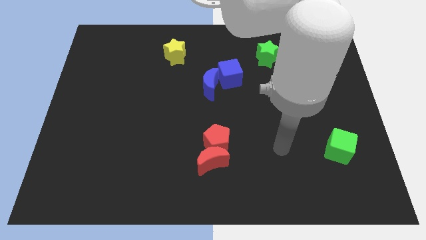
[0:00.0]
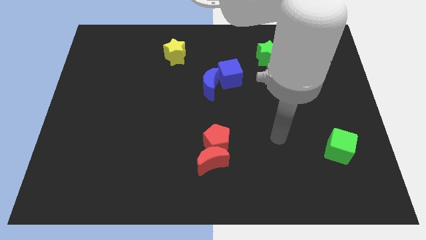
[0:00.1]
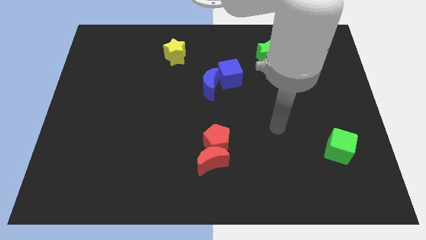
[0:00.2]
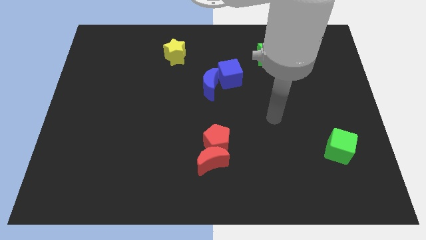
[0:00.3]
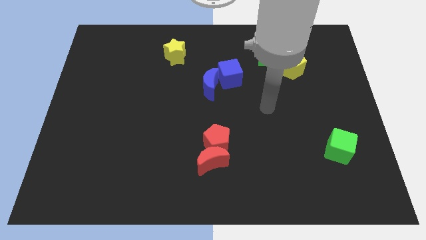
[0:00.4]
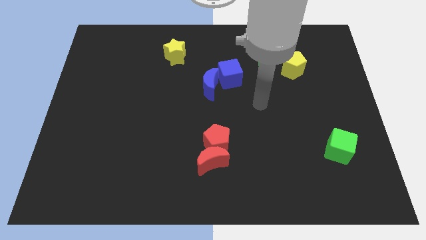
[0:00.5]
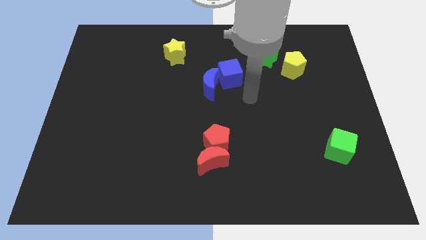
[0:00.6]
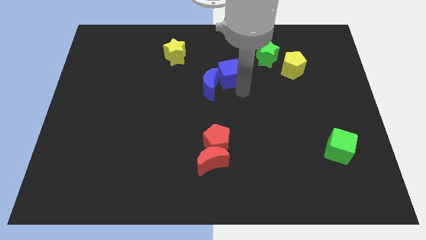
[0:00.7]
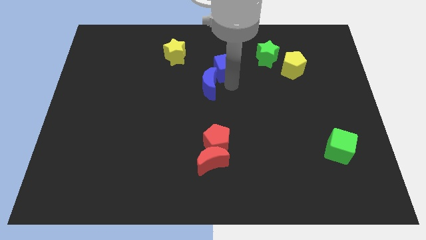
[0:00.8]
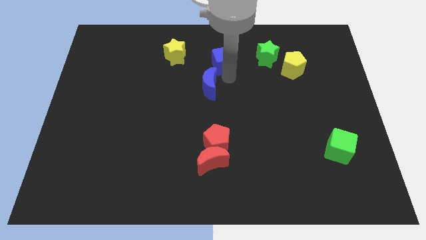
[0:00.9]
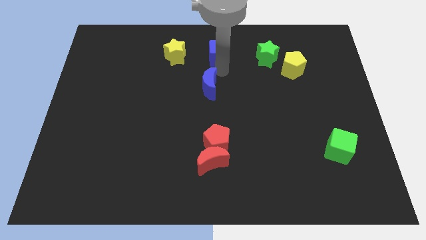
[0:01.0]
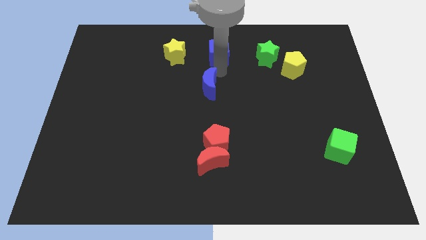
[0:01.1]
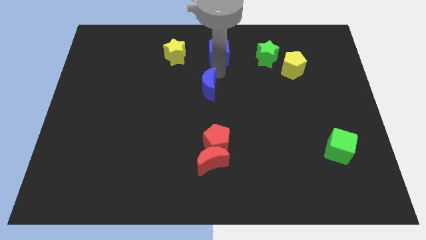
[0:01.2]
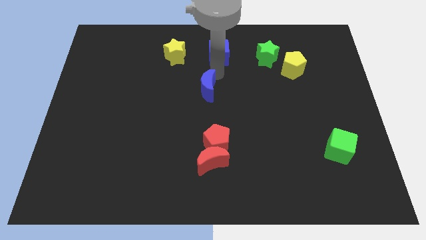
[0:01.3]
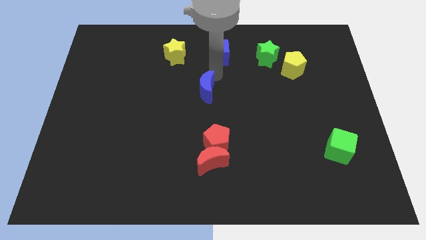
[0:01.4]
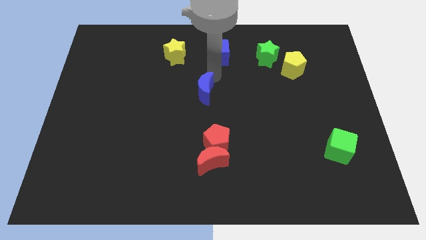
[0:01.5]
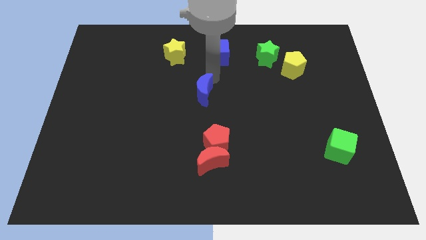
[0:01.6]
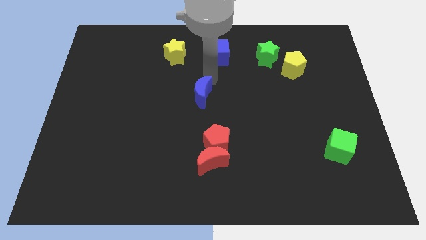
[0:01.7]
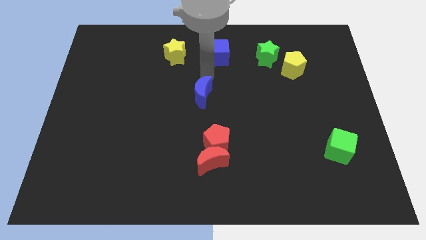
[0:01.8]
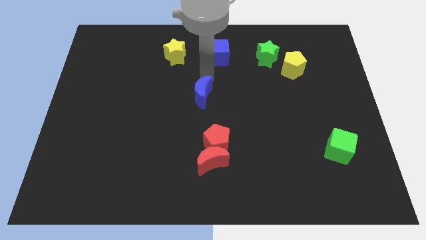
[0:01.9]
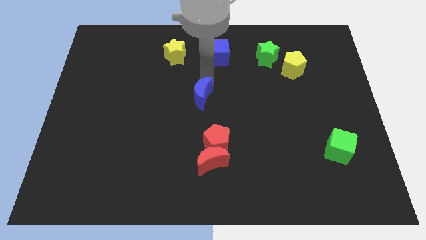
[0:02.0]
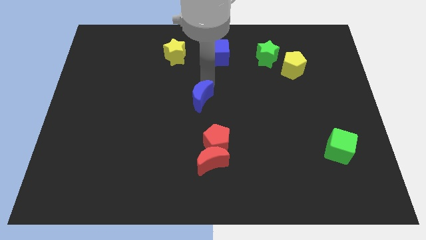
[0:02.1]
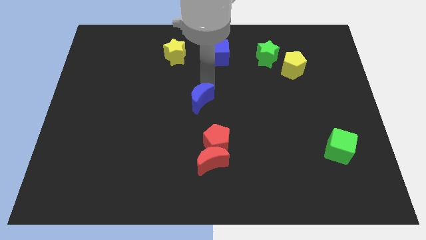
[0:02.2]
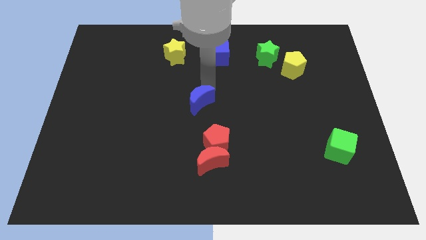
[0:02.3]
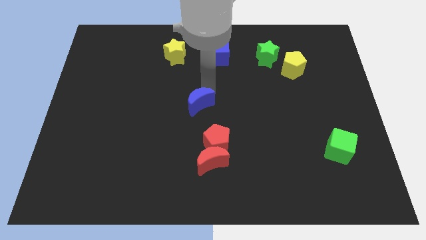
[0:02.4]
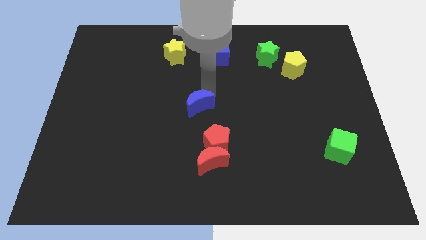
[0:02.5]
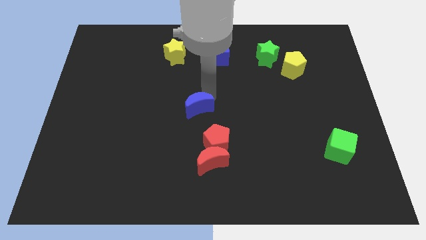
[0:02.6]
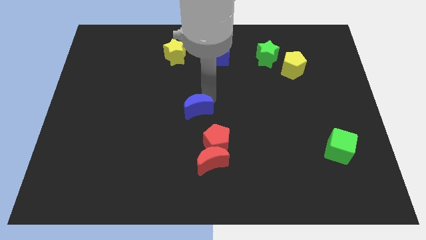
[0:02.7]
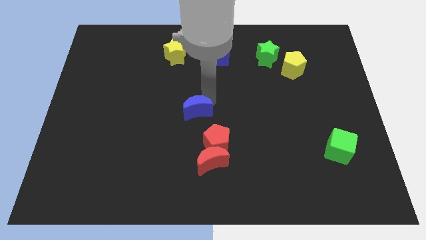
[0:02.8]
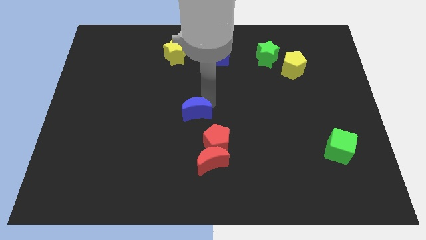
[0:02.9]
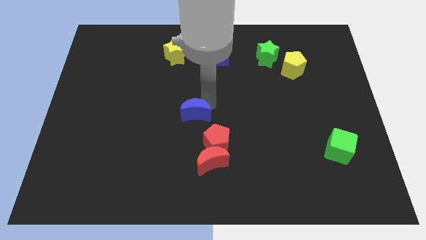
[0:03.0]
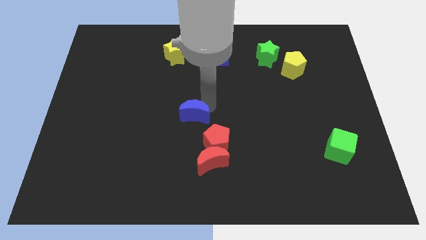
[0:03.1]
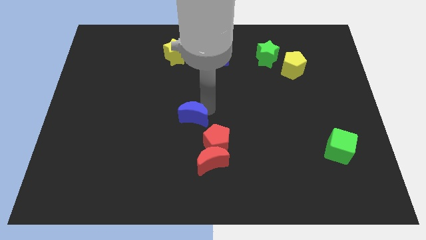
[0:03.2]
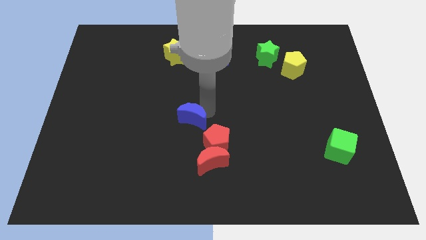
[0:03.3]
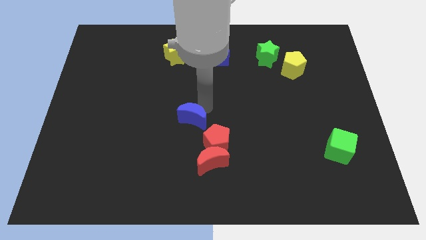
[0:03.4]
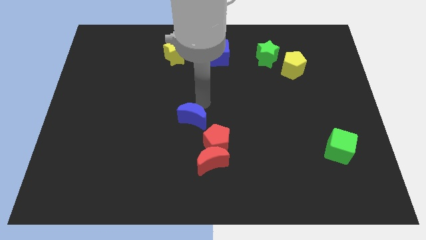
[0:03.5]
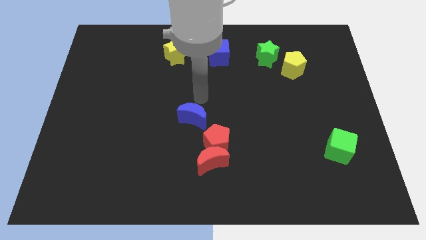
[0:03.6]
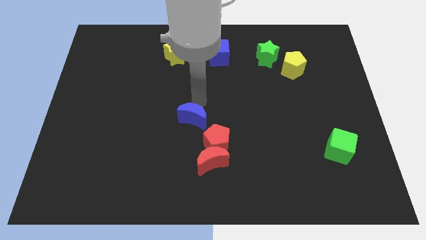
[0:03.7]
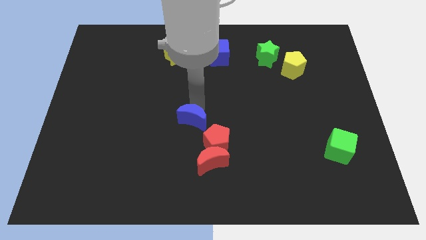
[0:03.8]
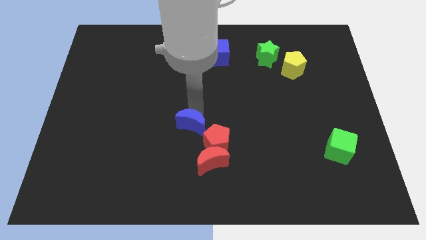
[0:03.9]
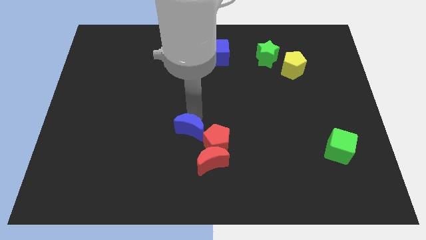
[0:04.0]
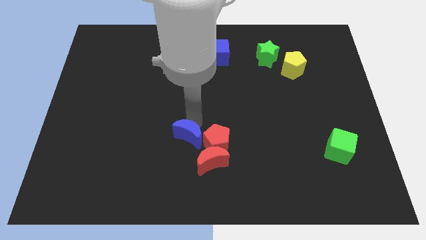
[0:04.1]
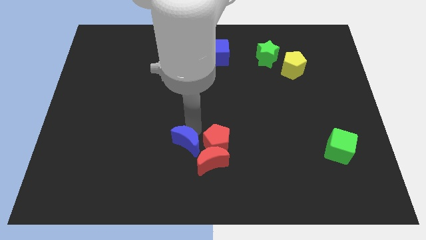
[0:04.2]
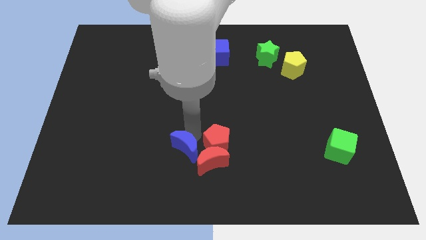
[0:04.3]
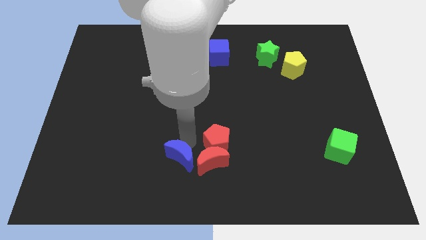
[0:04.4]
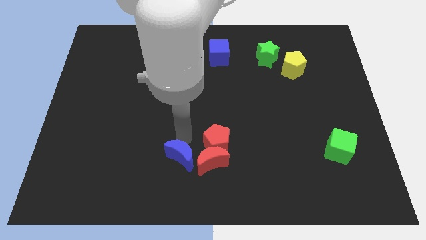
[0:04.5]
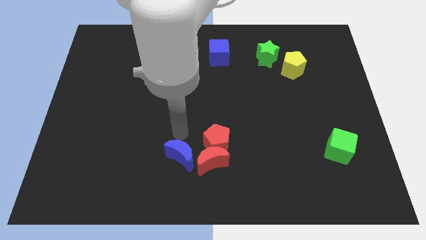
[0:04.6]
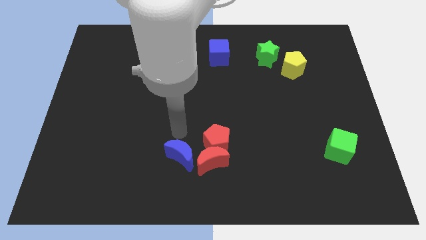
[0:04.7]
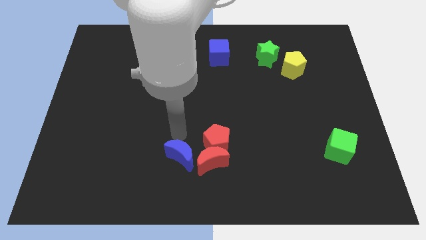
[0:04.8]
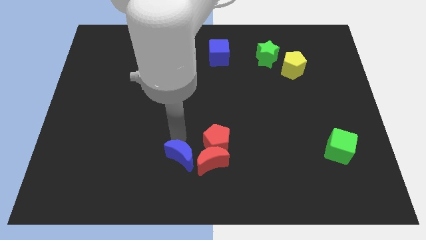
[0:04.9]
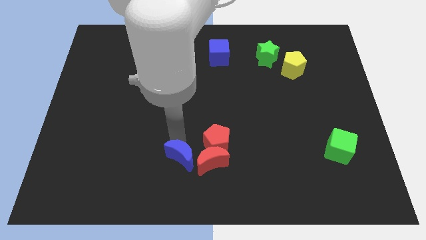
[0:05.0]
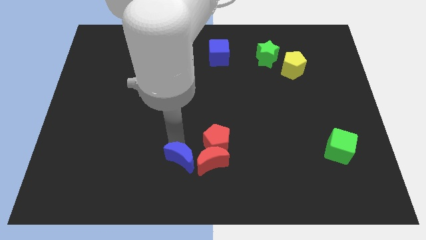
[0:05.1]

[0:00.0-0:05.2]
move the blue moon diagonally down and to the left of the red moon

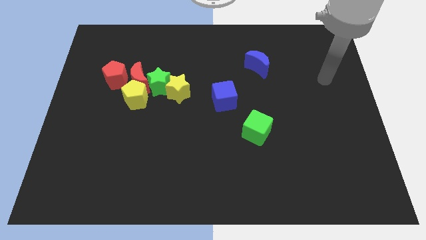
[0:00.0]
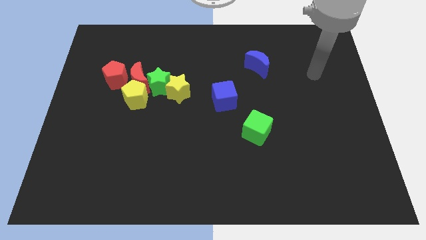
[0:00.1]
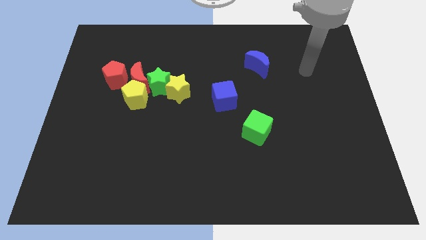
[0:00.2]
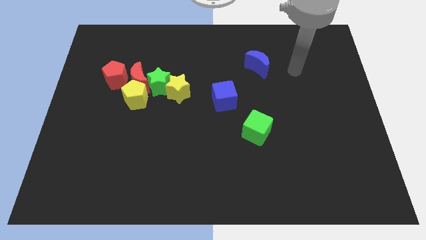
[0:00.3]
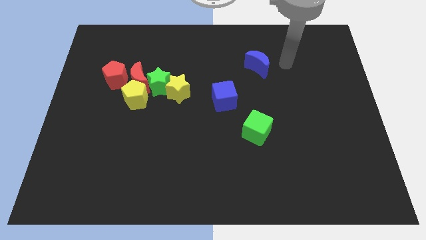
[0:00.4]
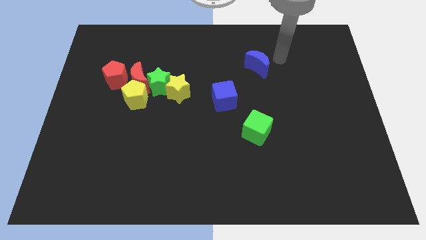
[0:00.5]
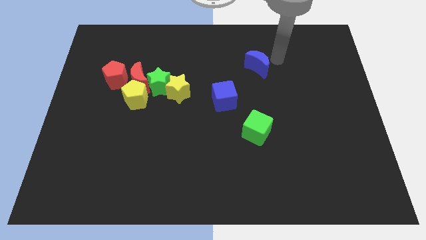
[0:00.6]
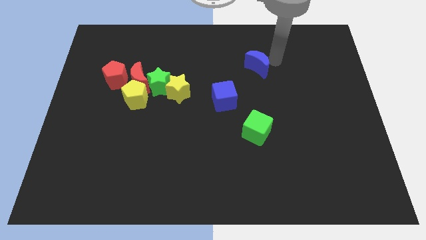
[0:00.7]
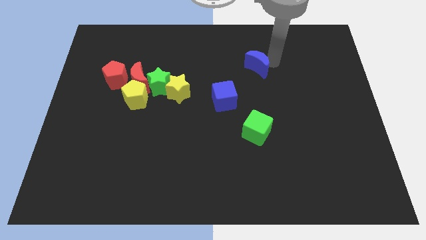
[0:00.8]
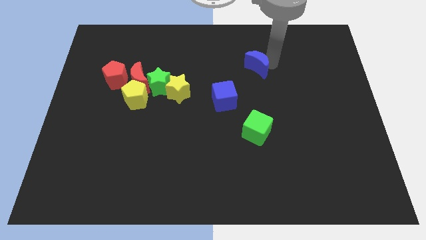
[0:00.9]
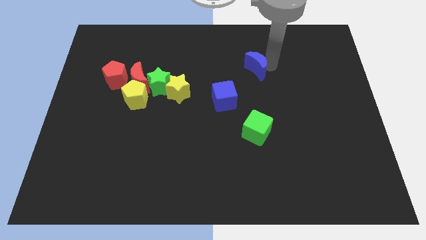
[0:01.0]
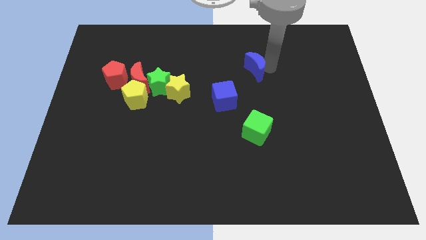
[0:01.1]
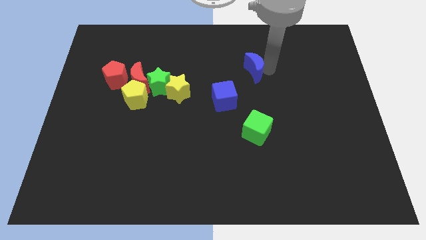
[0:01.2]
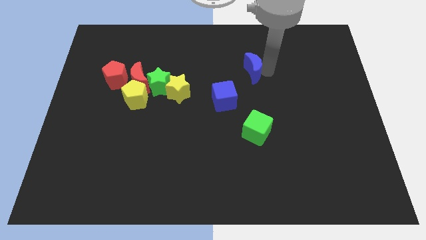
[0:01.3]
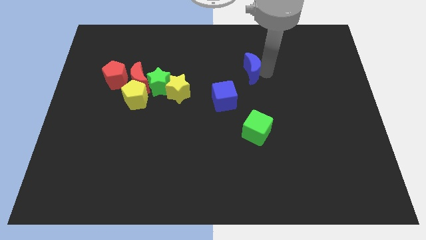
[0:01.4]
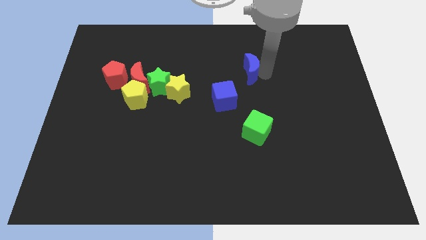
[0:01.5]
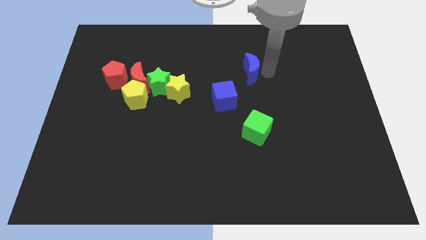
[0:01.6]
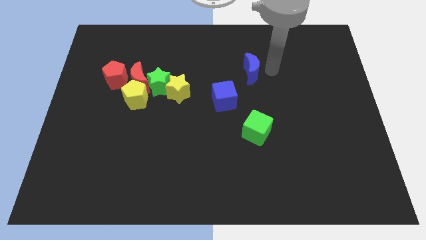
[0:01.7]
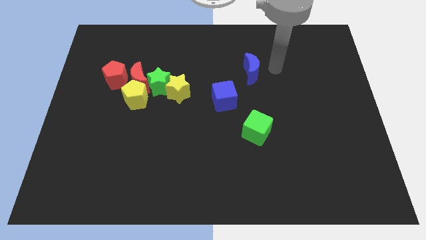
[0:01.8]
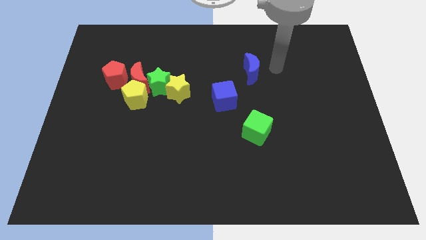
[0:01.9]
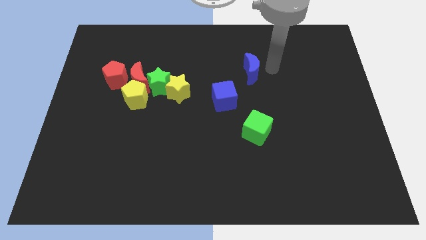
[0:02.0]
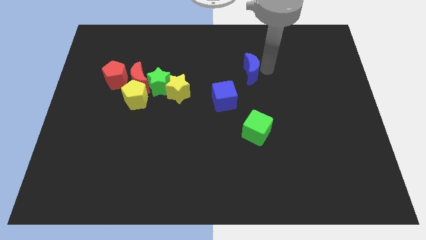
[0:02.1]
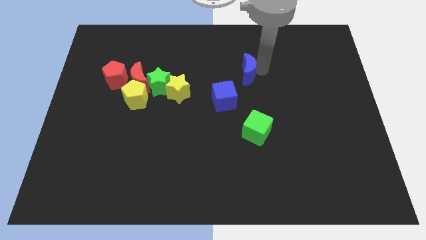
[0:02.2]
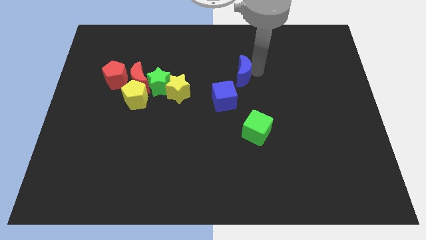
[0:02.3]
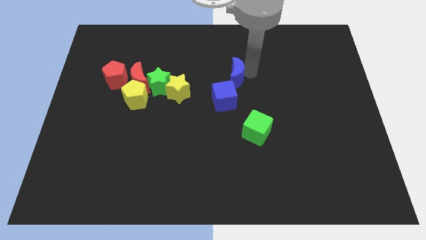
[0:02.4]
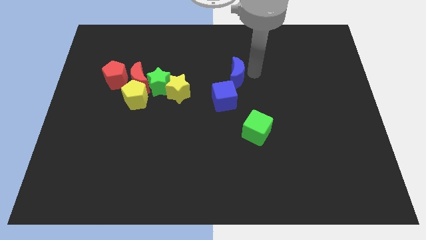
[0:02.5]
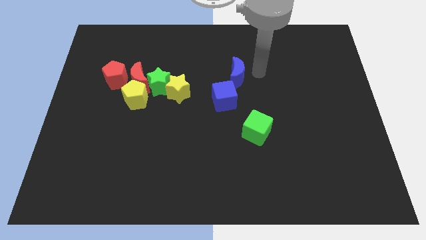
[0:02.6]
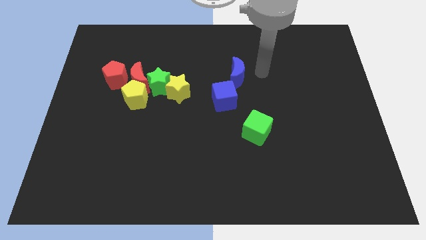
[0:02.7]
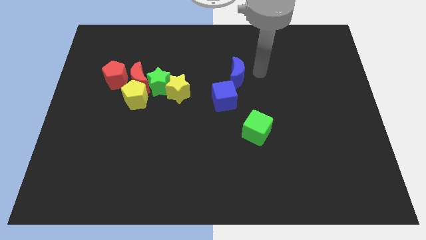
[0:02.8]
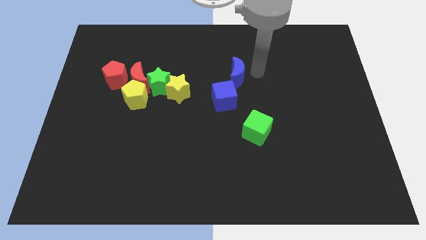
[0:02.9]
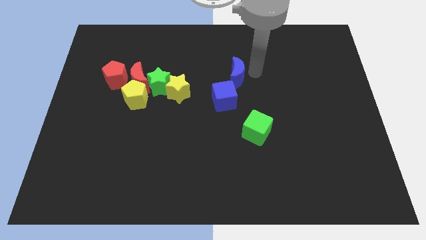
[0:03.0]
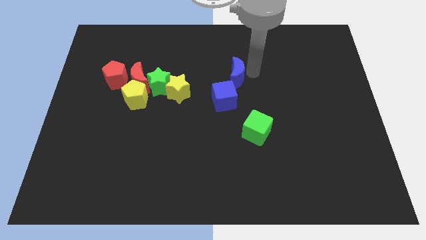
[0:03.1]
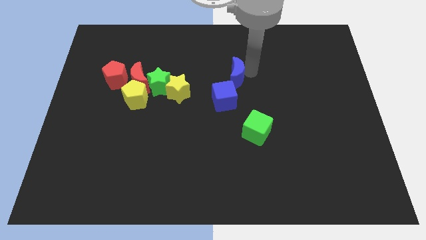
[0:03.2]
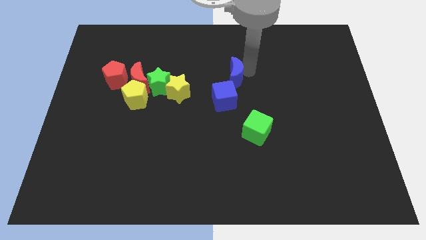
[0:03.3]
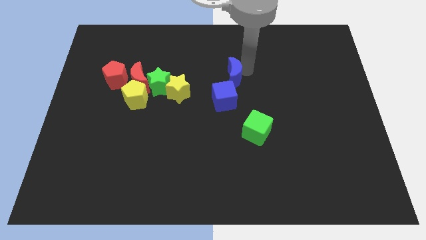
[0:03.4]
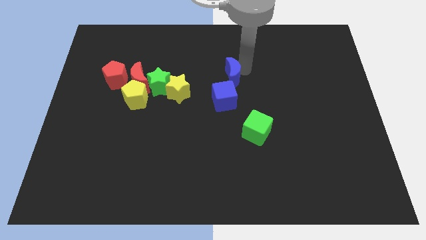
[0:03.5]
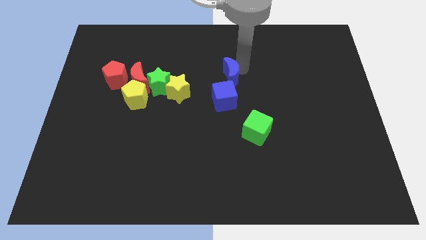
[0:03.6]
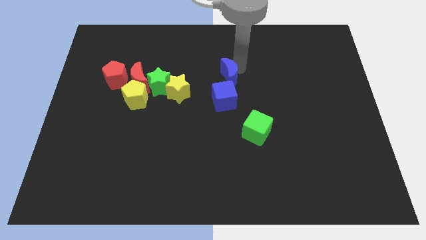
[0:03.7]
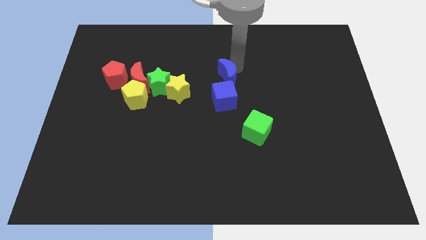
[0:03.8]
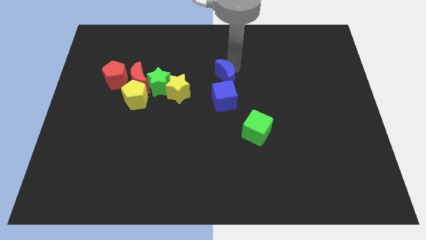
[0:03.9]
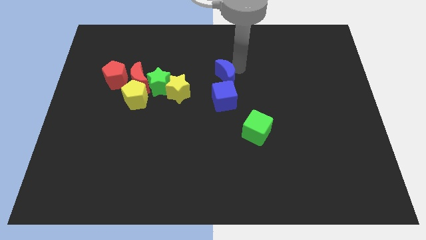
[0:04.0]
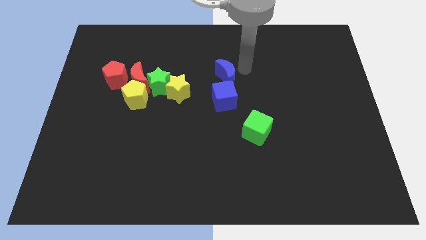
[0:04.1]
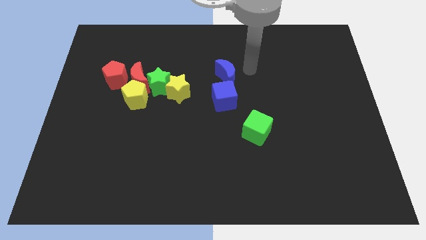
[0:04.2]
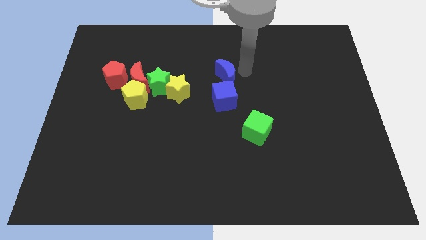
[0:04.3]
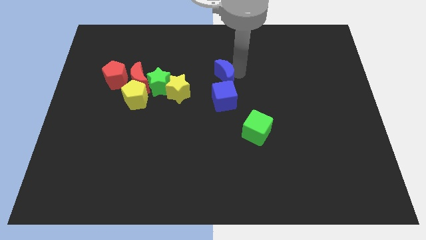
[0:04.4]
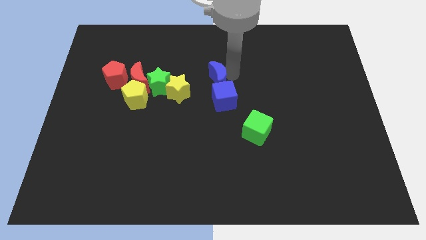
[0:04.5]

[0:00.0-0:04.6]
push the blue moon diagonally up and to the left of the blue cube
